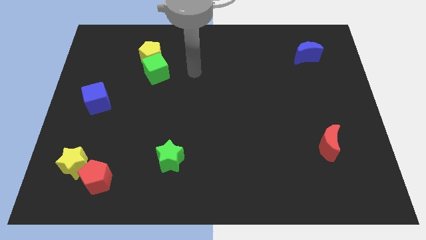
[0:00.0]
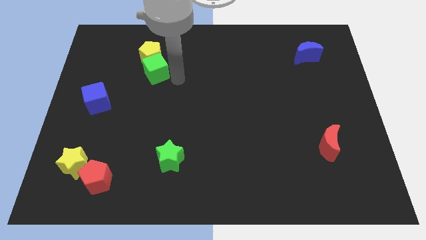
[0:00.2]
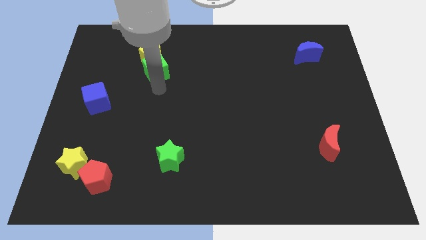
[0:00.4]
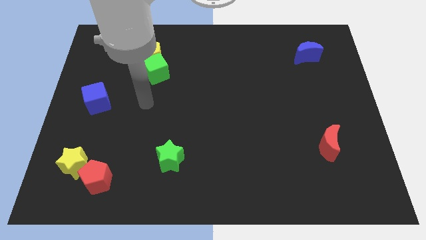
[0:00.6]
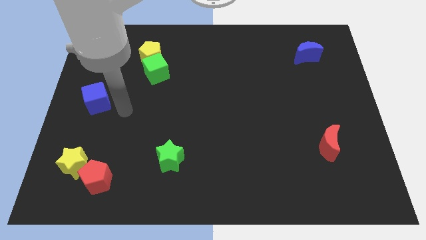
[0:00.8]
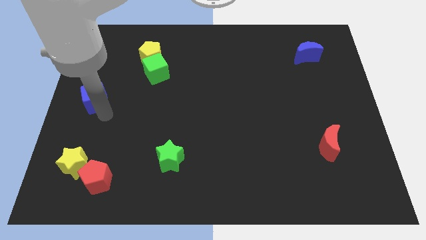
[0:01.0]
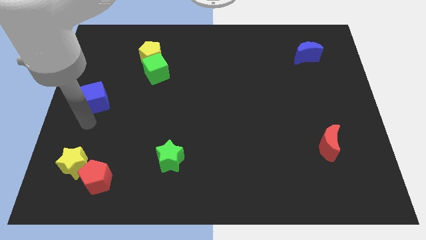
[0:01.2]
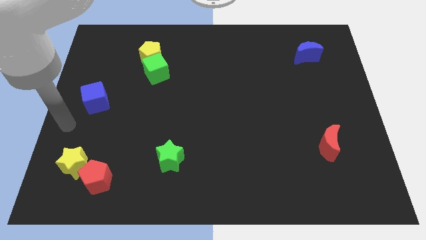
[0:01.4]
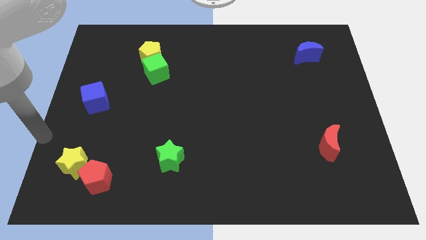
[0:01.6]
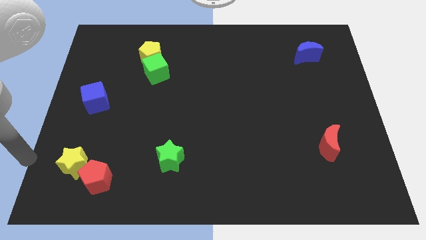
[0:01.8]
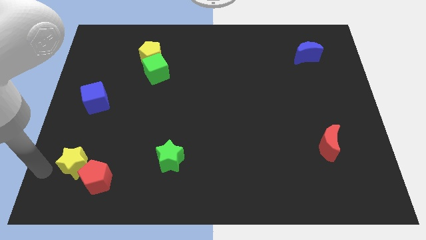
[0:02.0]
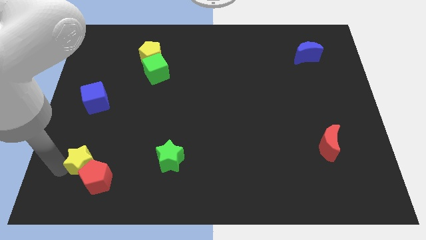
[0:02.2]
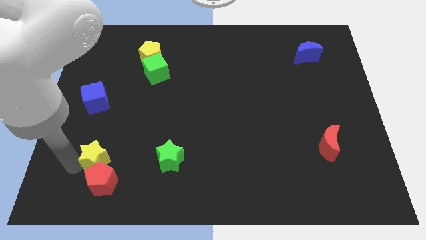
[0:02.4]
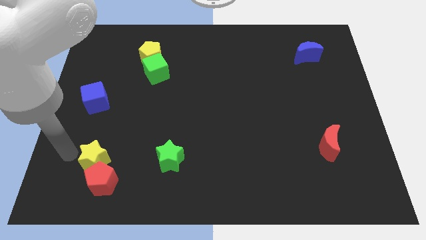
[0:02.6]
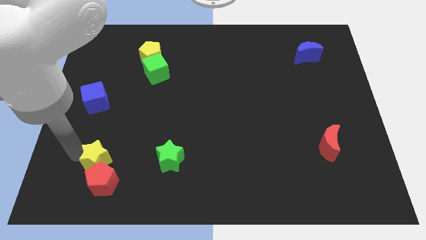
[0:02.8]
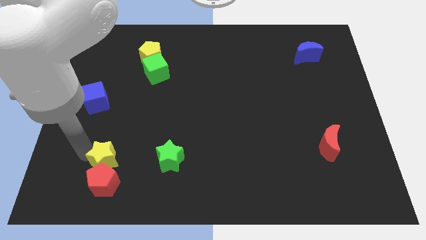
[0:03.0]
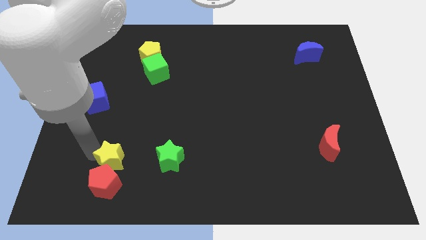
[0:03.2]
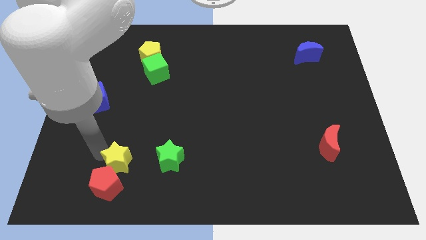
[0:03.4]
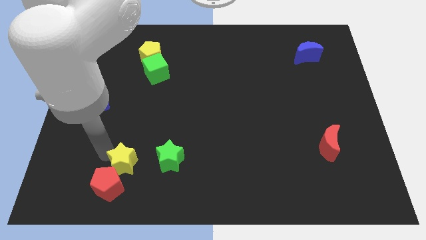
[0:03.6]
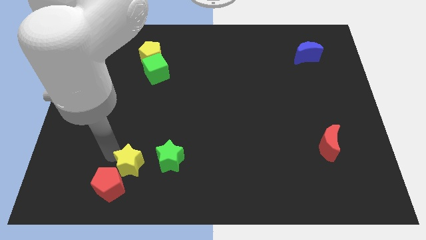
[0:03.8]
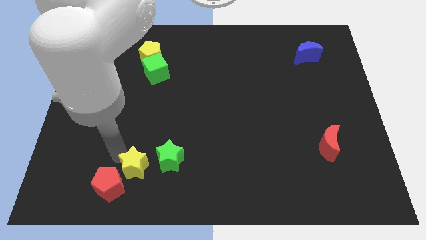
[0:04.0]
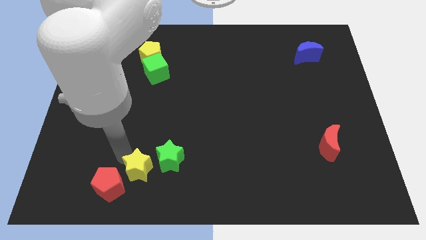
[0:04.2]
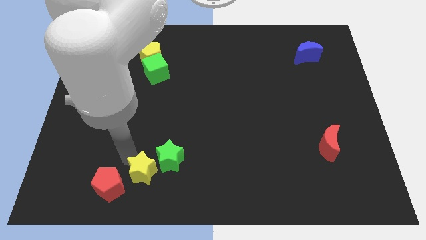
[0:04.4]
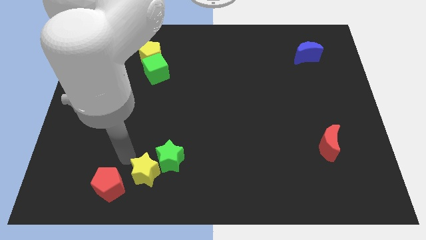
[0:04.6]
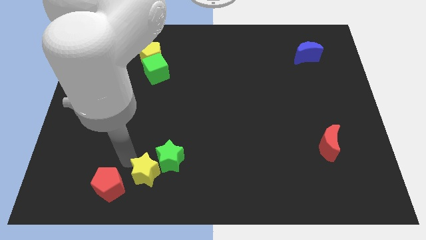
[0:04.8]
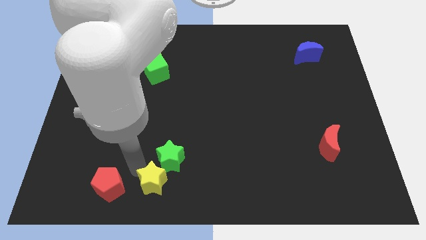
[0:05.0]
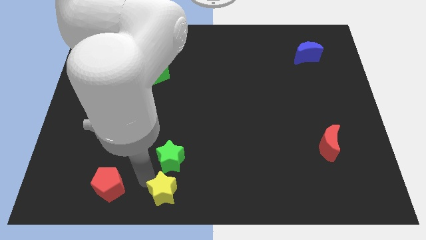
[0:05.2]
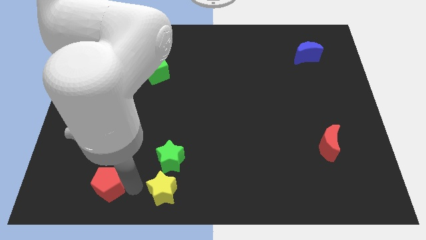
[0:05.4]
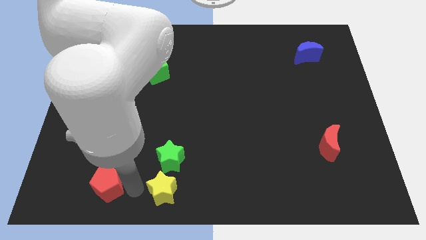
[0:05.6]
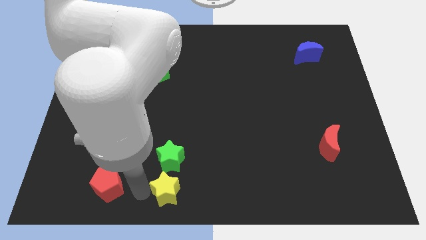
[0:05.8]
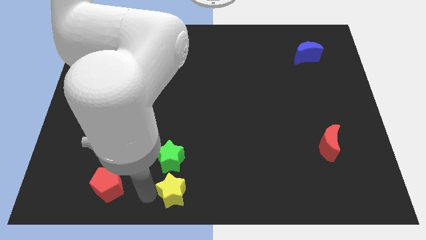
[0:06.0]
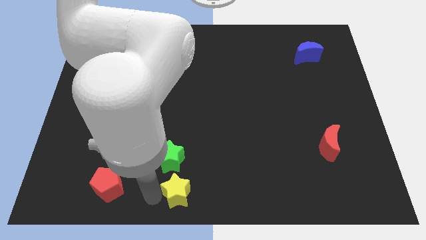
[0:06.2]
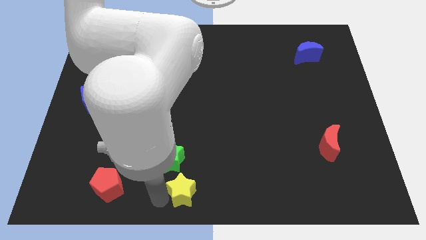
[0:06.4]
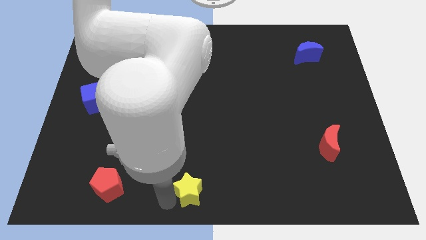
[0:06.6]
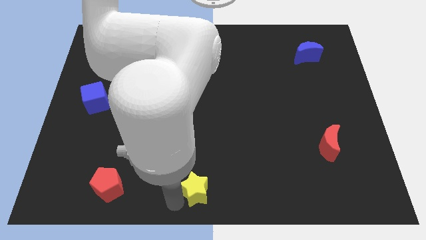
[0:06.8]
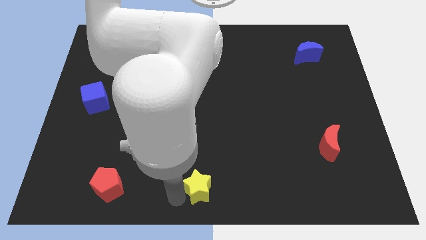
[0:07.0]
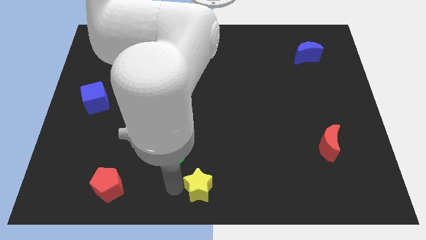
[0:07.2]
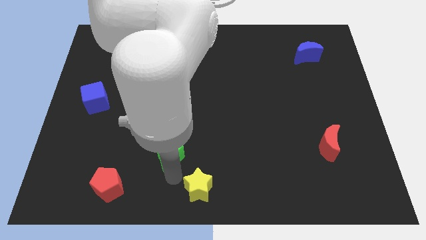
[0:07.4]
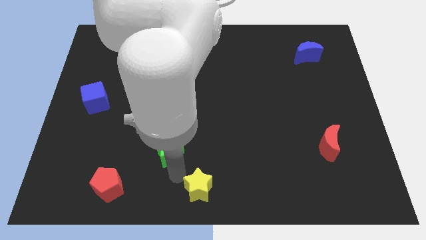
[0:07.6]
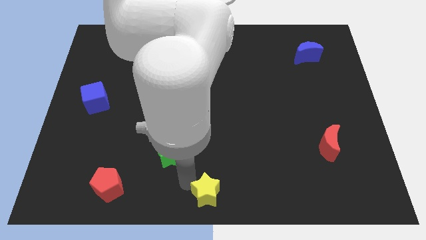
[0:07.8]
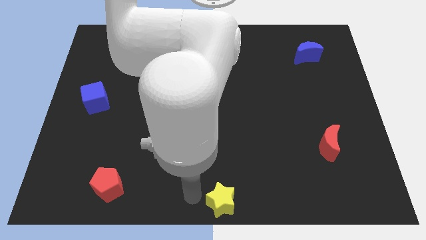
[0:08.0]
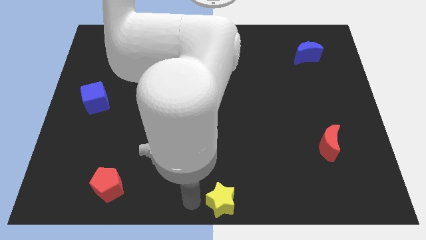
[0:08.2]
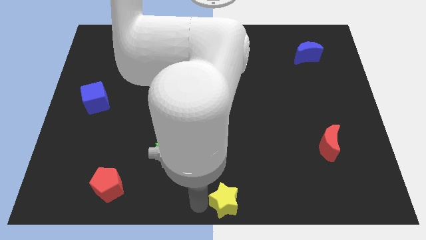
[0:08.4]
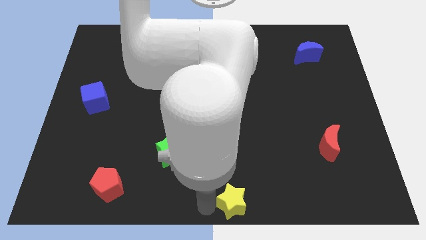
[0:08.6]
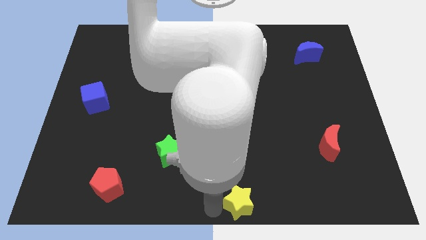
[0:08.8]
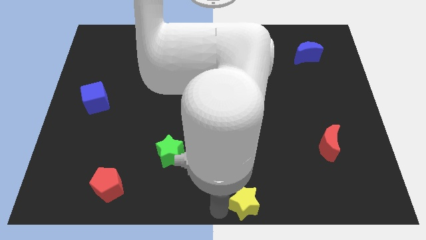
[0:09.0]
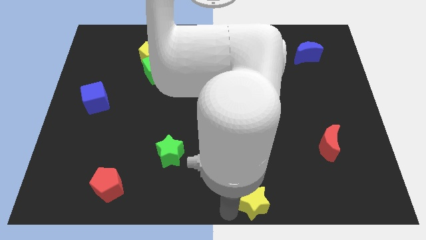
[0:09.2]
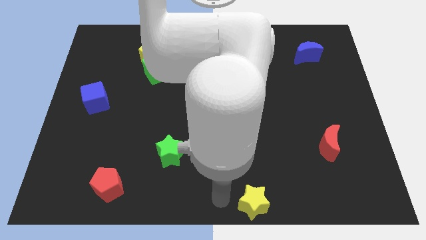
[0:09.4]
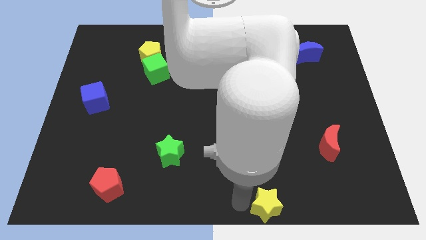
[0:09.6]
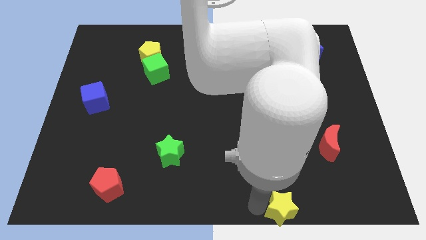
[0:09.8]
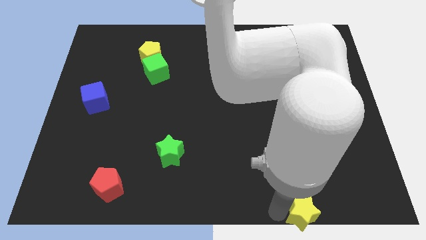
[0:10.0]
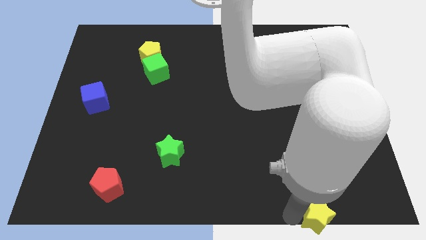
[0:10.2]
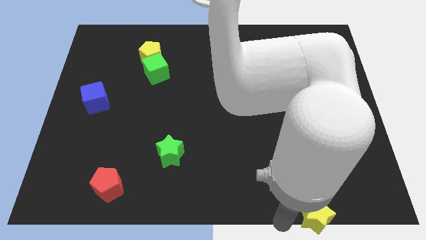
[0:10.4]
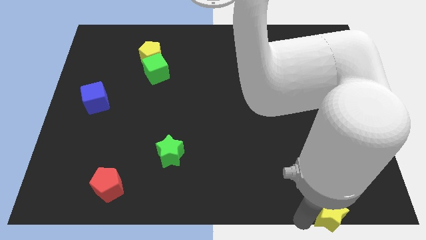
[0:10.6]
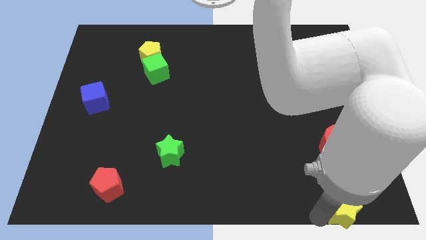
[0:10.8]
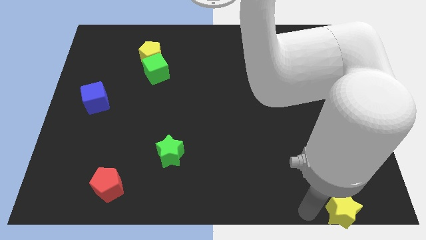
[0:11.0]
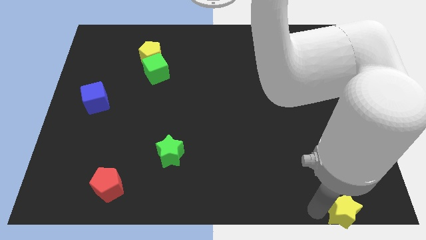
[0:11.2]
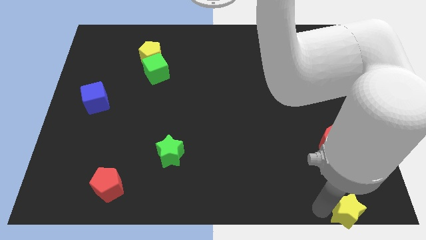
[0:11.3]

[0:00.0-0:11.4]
move the yellow star to the bottom right

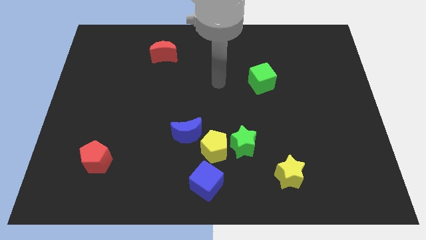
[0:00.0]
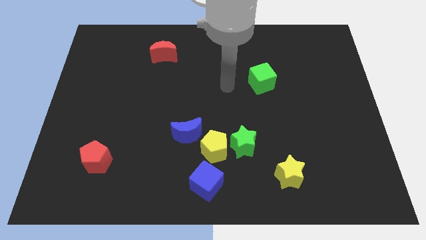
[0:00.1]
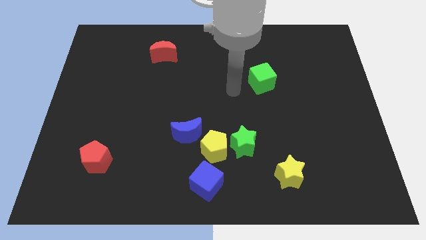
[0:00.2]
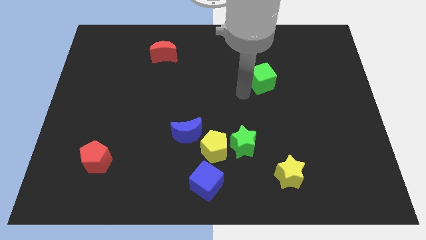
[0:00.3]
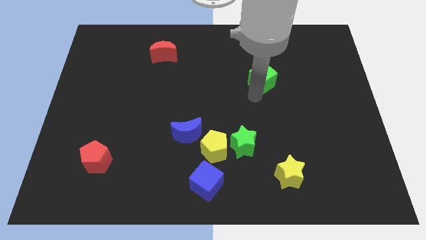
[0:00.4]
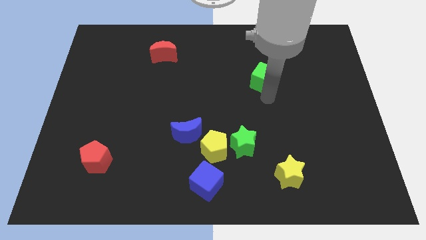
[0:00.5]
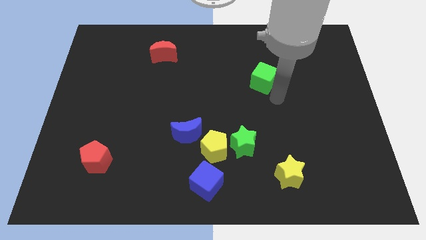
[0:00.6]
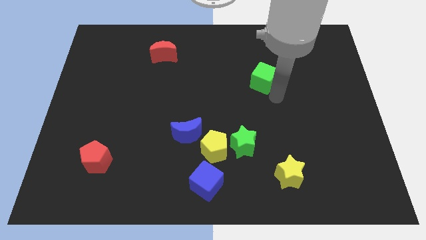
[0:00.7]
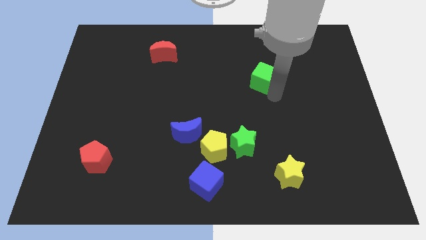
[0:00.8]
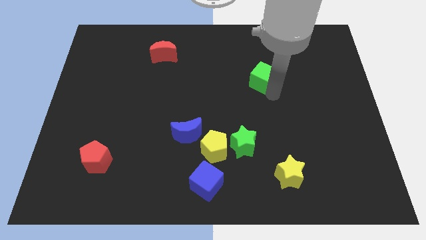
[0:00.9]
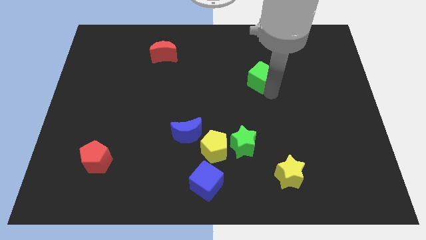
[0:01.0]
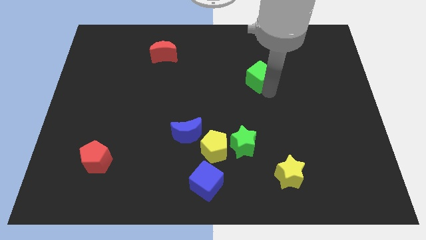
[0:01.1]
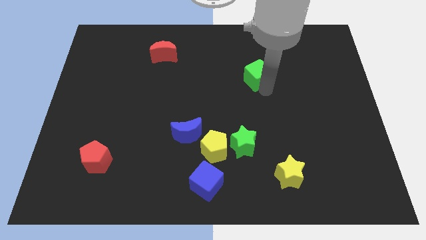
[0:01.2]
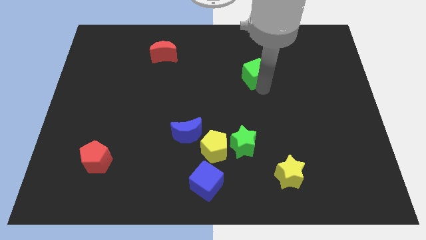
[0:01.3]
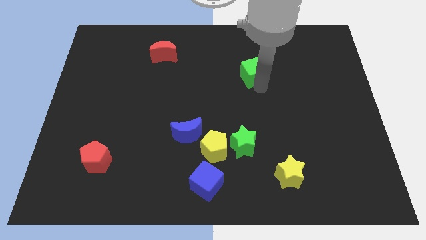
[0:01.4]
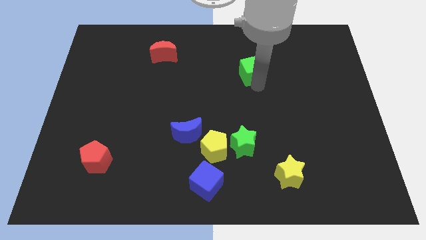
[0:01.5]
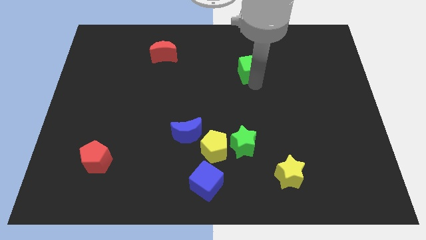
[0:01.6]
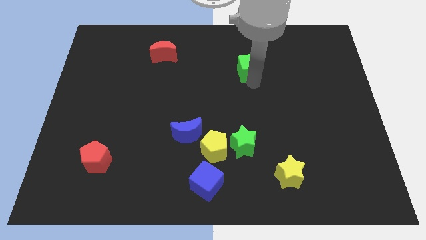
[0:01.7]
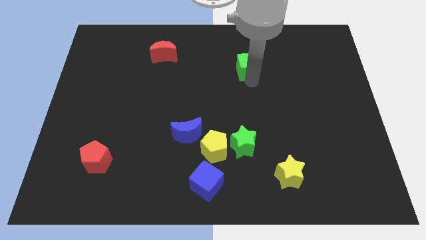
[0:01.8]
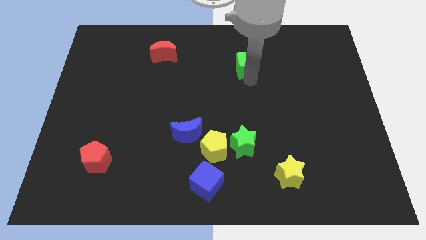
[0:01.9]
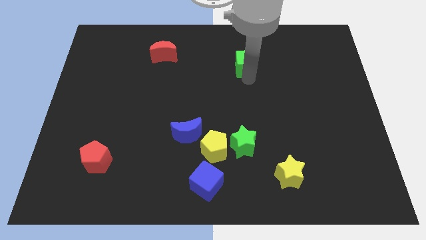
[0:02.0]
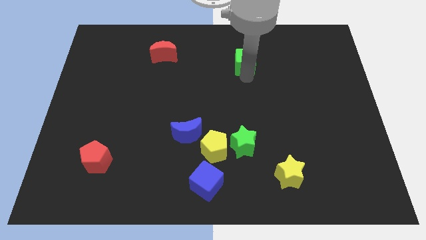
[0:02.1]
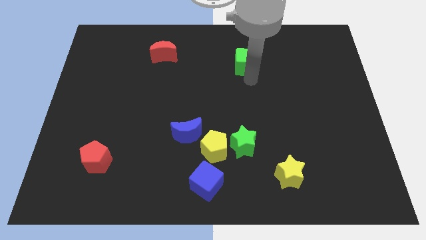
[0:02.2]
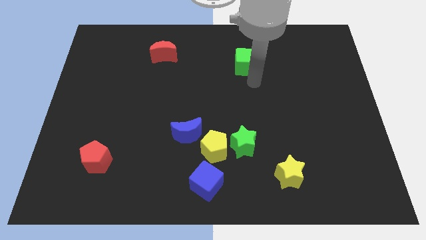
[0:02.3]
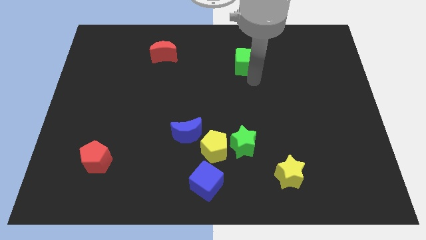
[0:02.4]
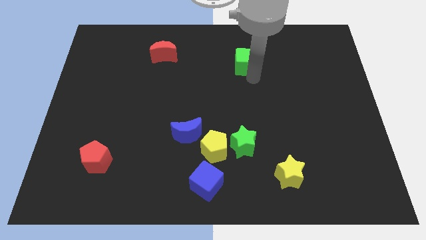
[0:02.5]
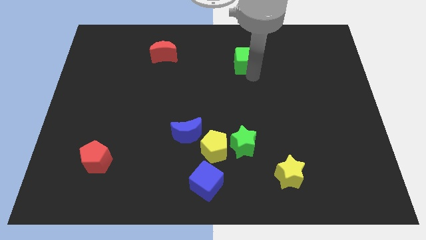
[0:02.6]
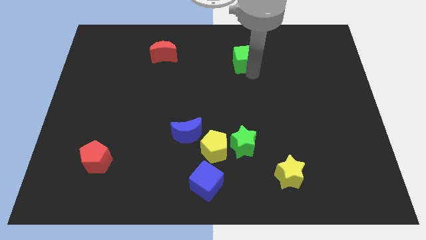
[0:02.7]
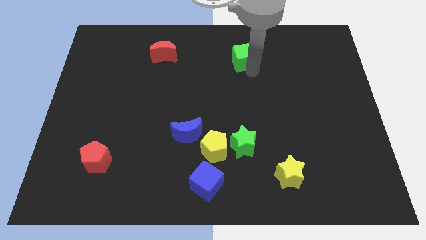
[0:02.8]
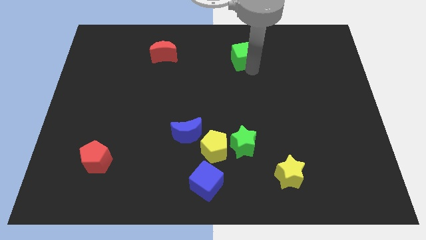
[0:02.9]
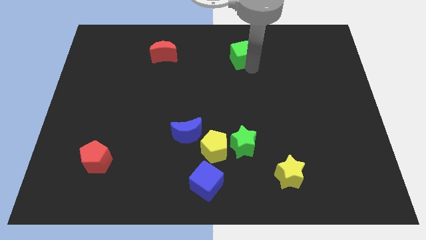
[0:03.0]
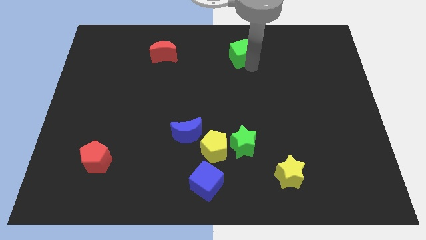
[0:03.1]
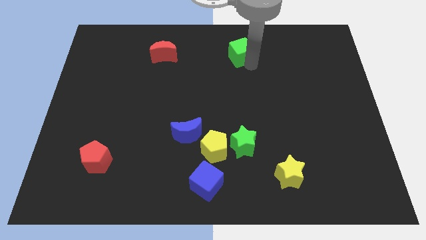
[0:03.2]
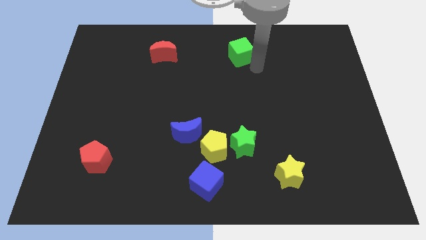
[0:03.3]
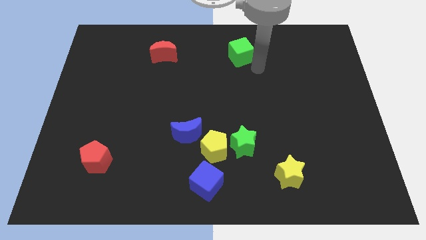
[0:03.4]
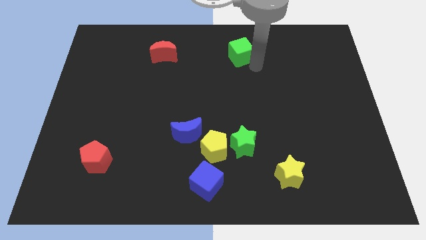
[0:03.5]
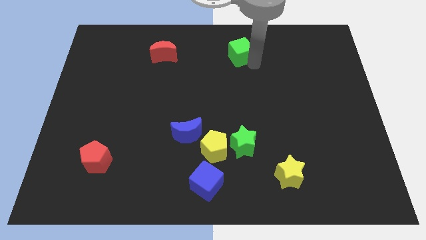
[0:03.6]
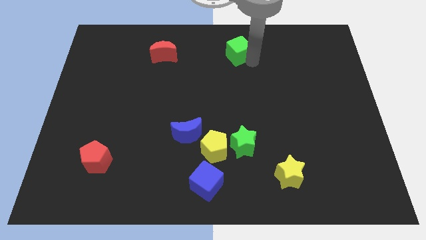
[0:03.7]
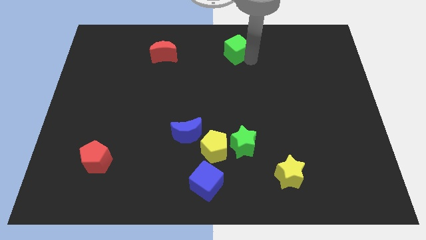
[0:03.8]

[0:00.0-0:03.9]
slide the green cube to the top side
